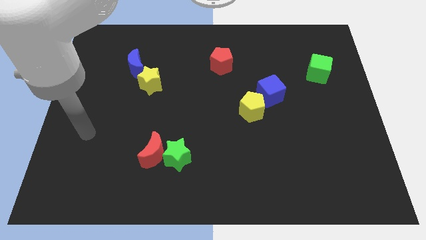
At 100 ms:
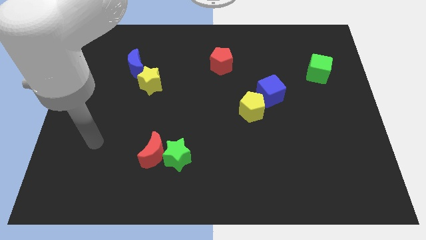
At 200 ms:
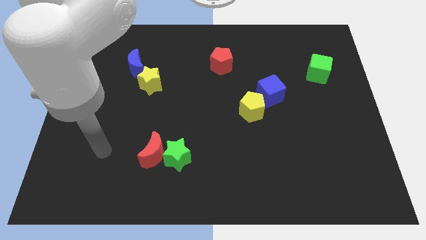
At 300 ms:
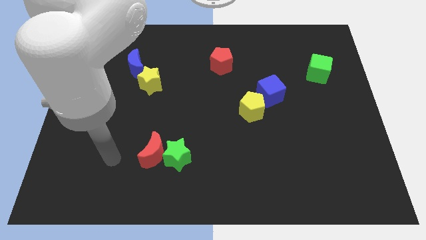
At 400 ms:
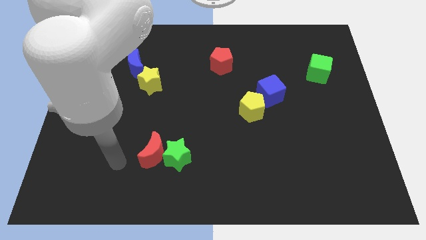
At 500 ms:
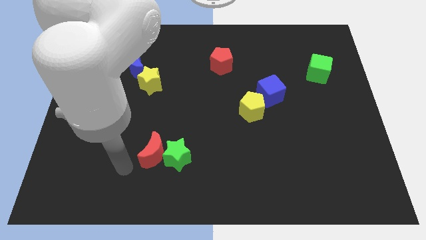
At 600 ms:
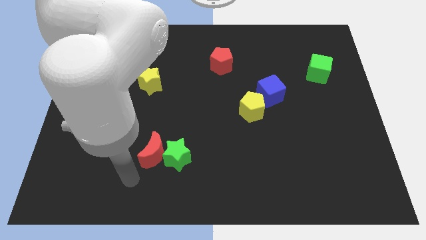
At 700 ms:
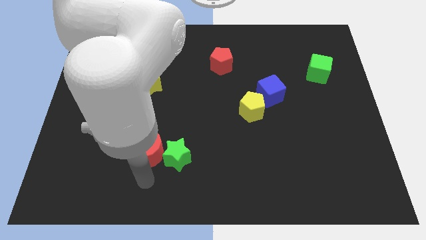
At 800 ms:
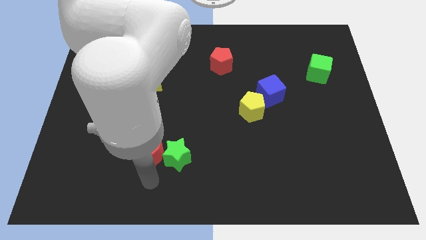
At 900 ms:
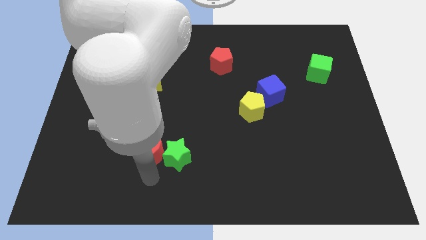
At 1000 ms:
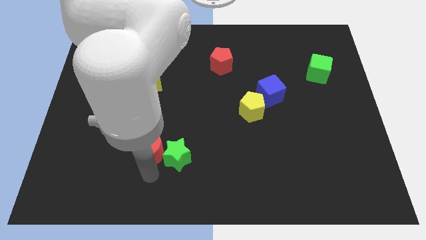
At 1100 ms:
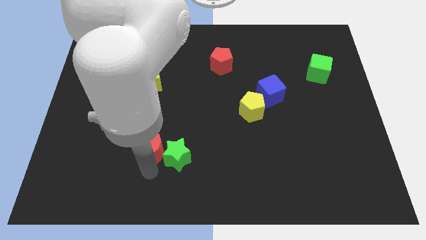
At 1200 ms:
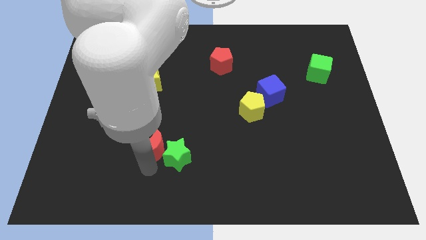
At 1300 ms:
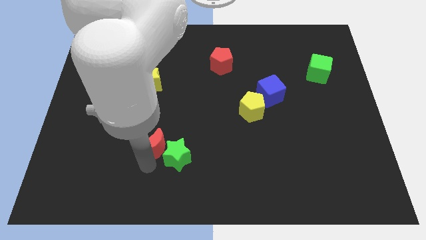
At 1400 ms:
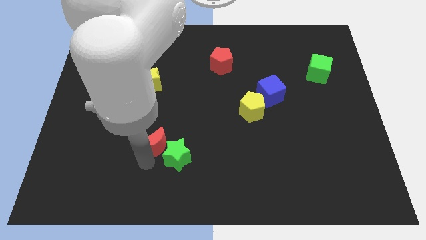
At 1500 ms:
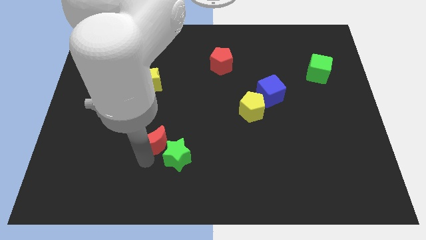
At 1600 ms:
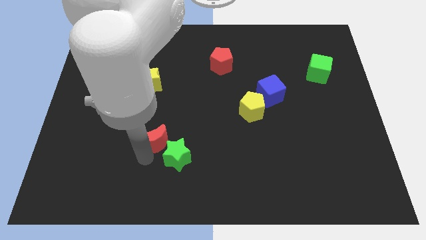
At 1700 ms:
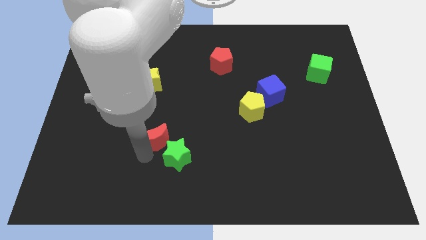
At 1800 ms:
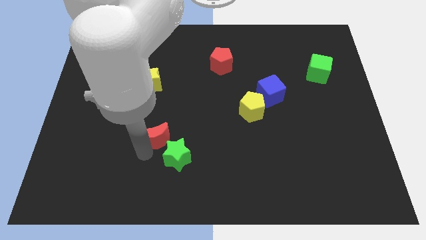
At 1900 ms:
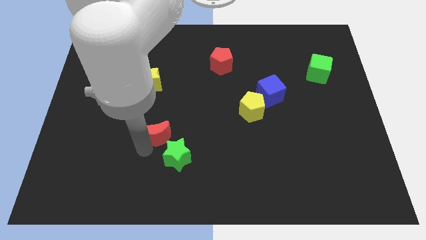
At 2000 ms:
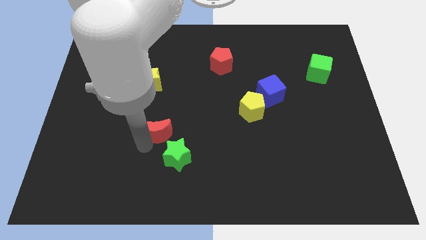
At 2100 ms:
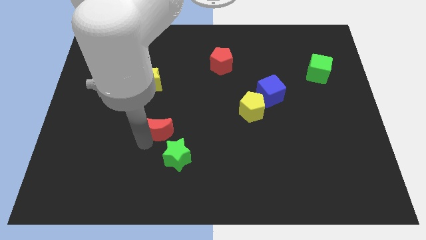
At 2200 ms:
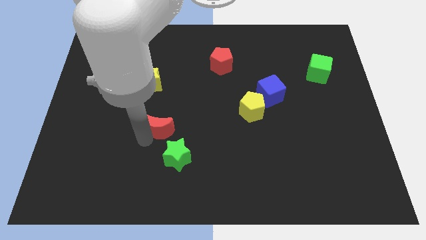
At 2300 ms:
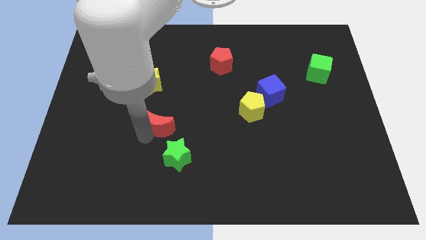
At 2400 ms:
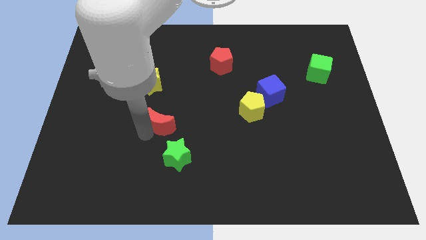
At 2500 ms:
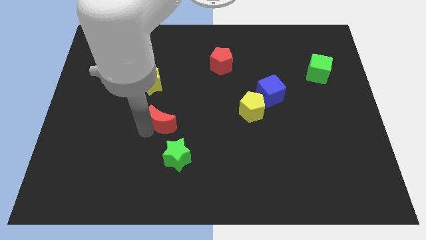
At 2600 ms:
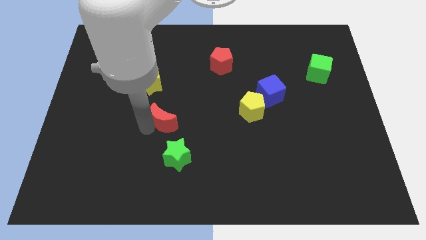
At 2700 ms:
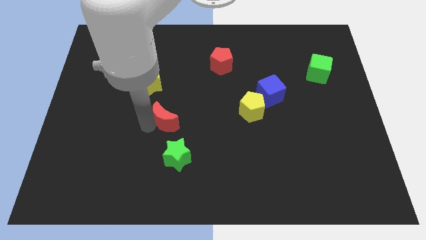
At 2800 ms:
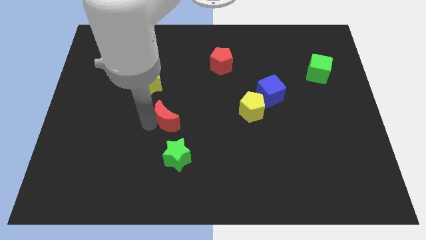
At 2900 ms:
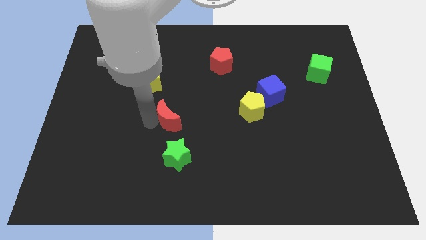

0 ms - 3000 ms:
move the red moon somewhat up and to the right diagonally

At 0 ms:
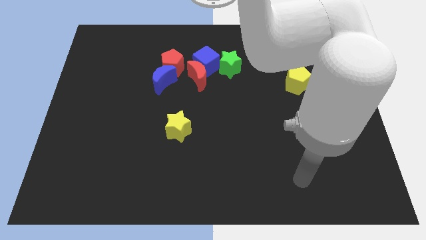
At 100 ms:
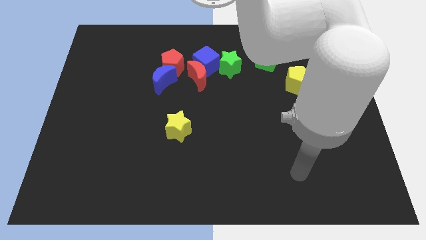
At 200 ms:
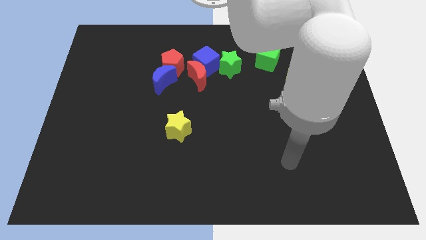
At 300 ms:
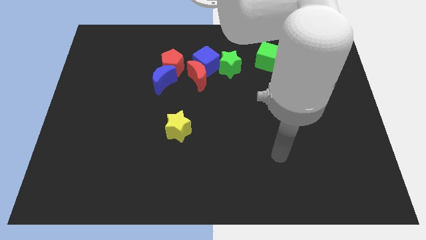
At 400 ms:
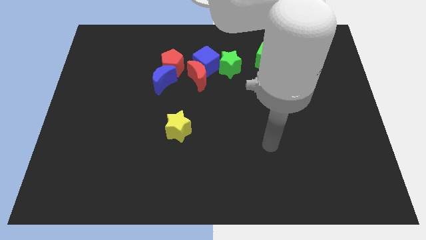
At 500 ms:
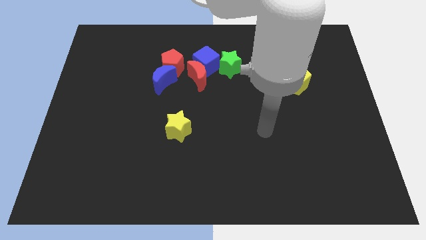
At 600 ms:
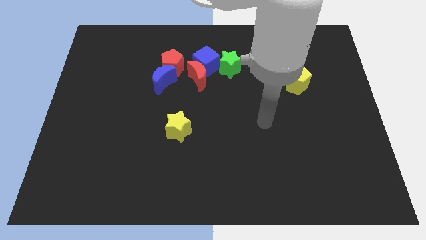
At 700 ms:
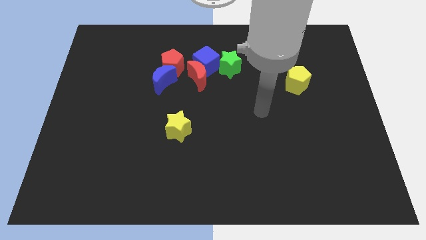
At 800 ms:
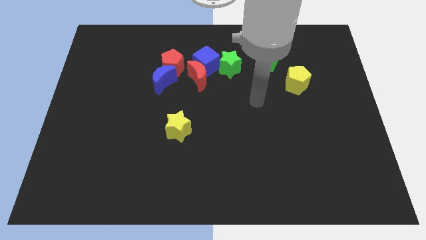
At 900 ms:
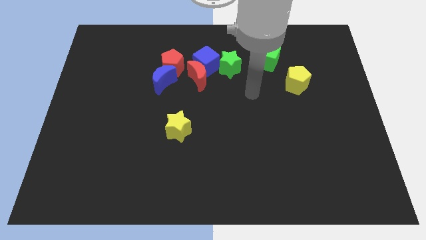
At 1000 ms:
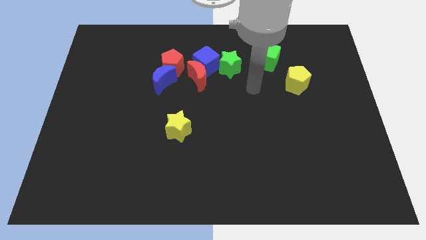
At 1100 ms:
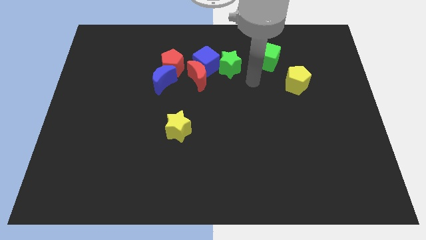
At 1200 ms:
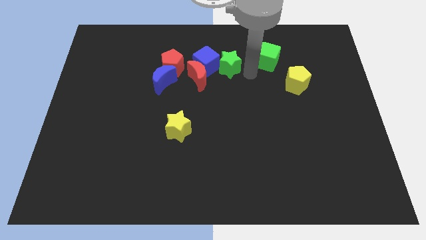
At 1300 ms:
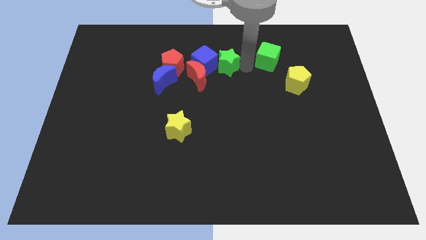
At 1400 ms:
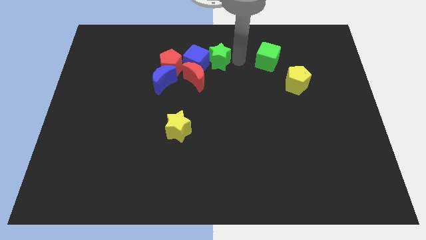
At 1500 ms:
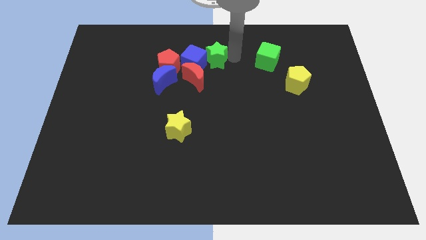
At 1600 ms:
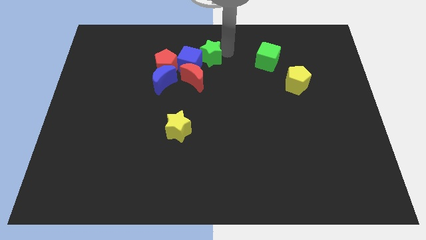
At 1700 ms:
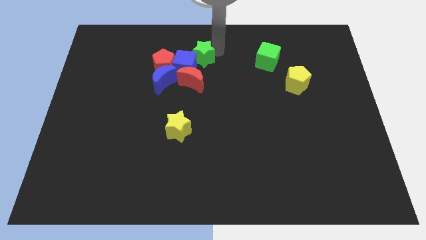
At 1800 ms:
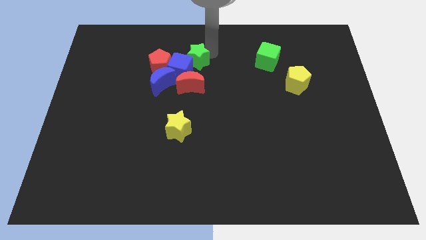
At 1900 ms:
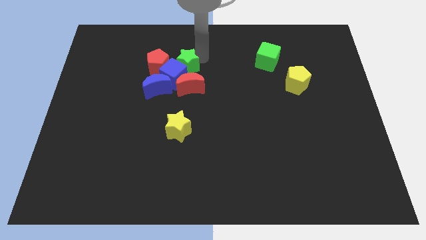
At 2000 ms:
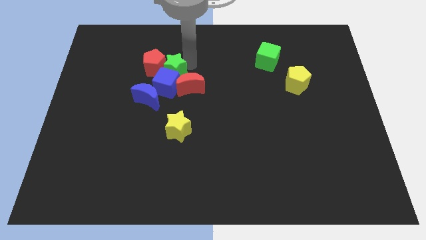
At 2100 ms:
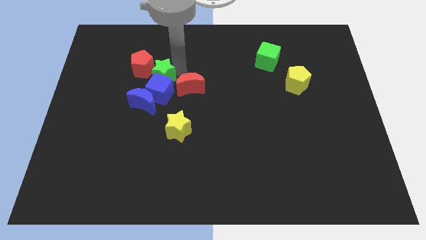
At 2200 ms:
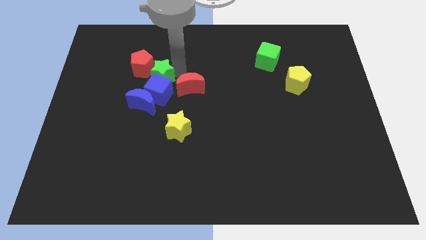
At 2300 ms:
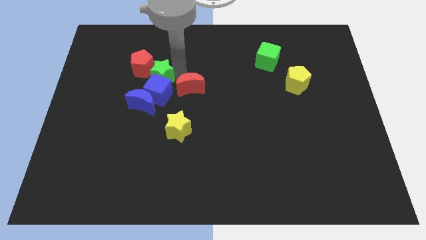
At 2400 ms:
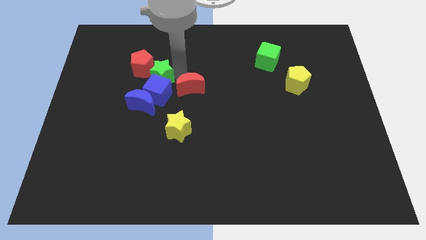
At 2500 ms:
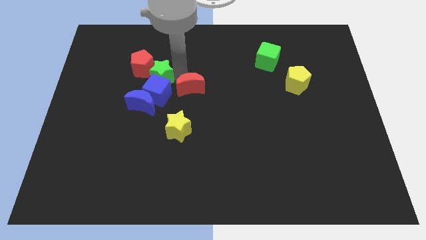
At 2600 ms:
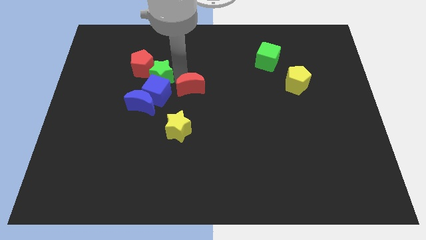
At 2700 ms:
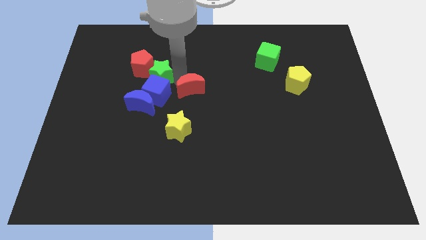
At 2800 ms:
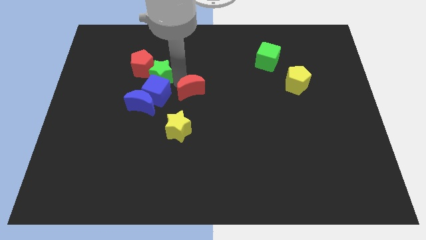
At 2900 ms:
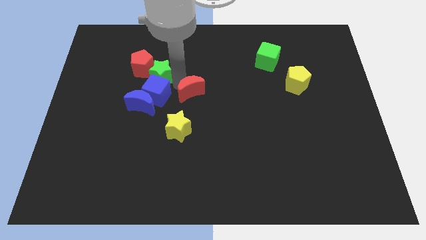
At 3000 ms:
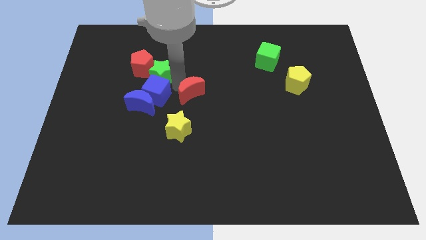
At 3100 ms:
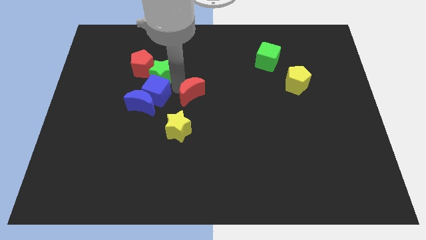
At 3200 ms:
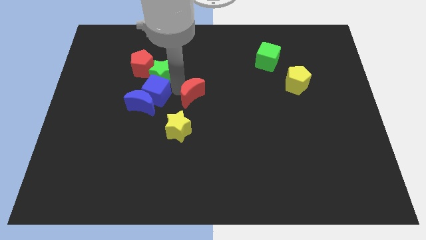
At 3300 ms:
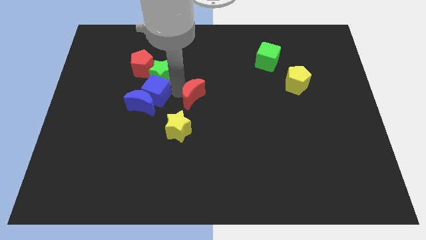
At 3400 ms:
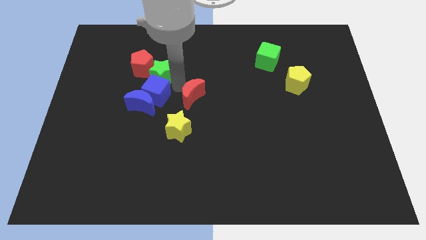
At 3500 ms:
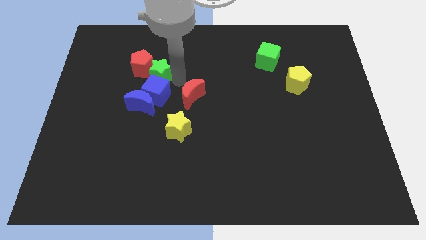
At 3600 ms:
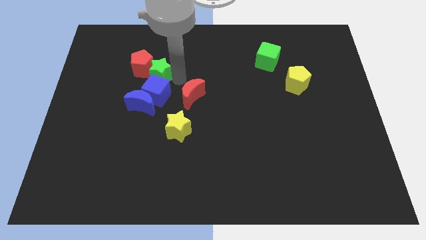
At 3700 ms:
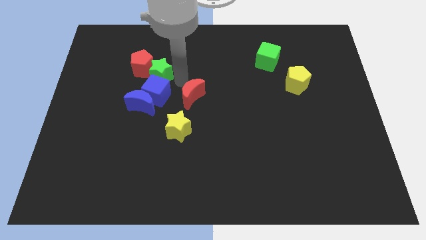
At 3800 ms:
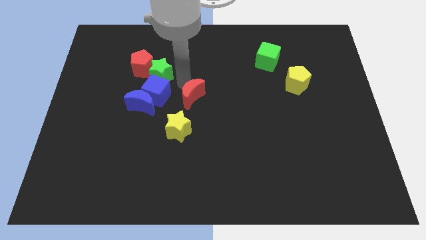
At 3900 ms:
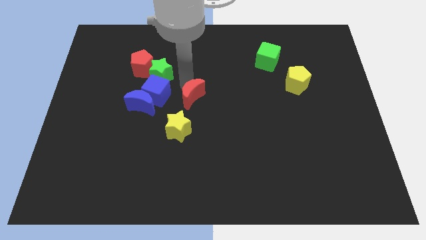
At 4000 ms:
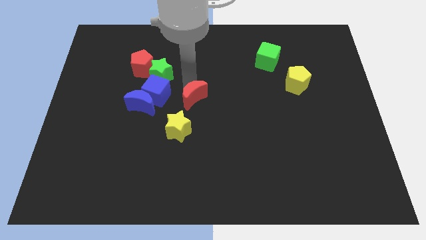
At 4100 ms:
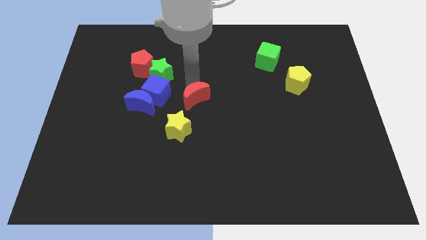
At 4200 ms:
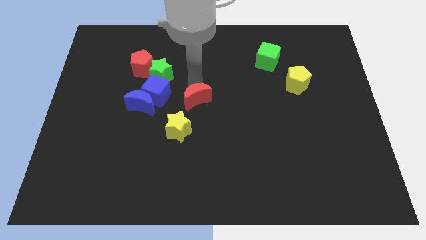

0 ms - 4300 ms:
push the red moon downwards a bit

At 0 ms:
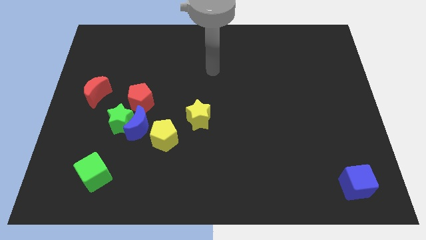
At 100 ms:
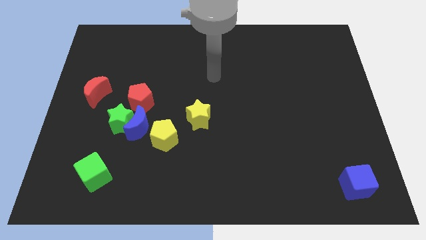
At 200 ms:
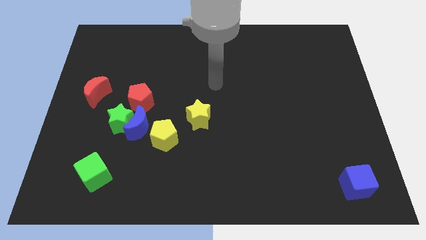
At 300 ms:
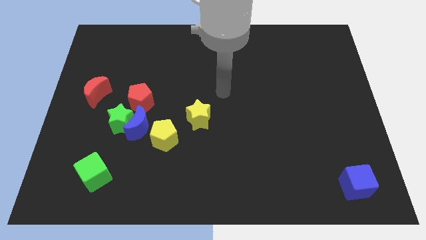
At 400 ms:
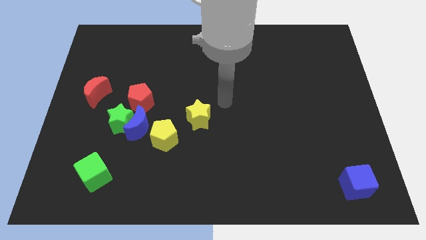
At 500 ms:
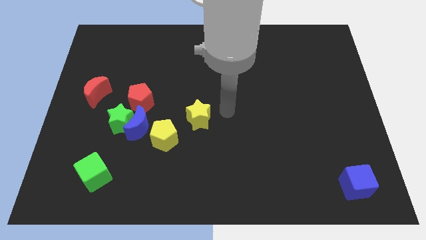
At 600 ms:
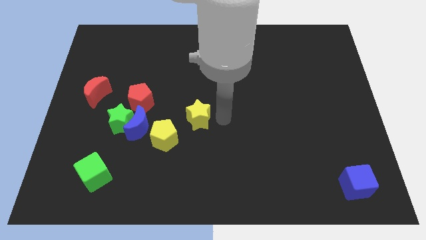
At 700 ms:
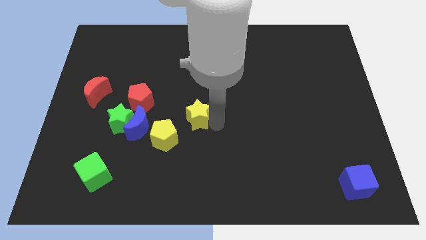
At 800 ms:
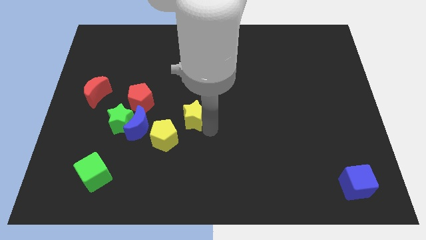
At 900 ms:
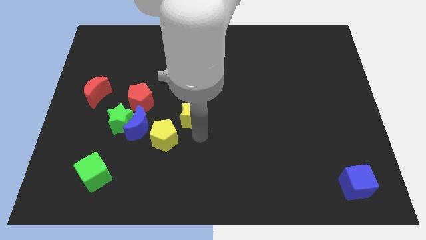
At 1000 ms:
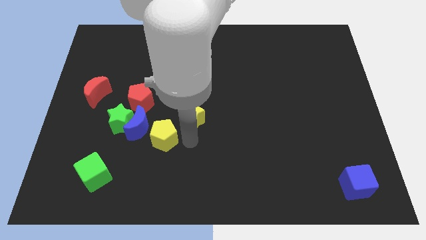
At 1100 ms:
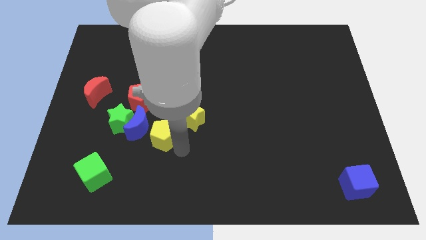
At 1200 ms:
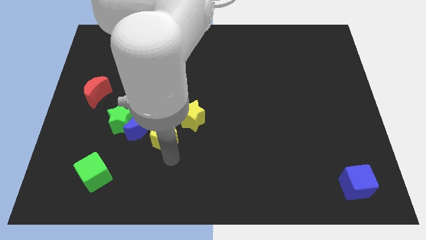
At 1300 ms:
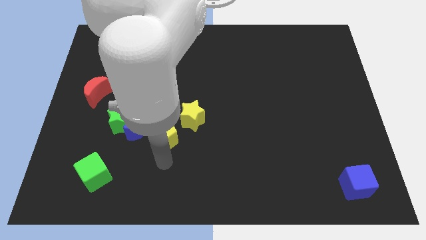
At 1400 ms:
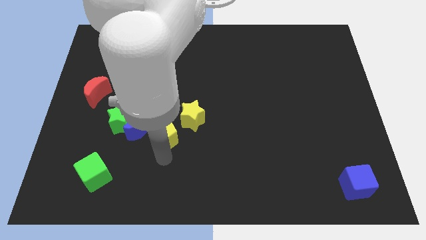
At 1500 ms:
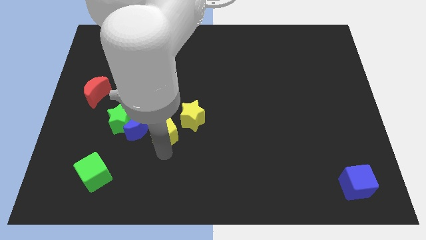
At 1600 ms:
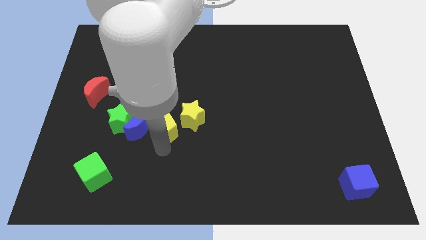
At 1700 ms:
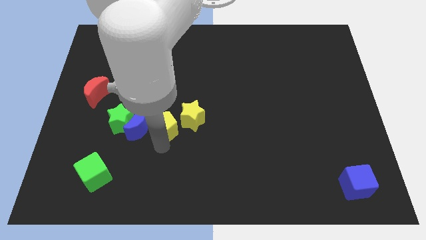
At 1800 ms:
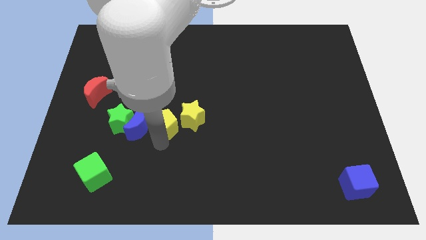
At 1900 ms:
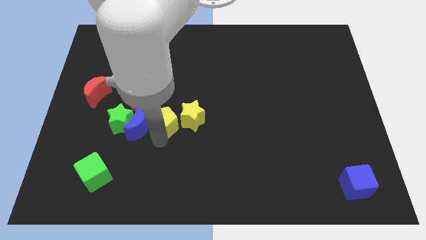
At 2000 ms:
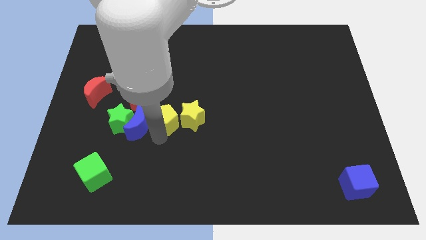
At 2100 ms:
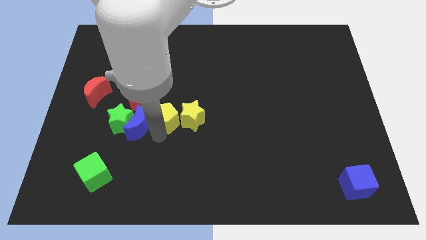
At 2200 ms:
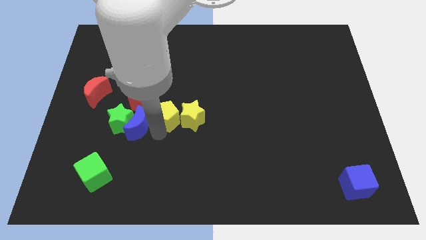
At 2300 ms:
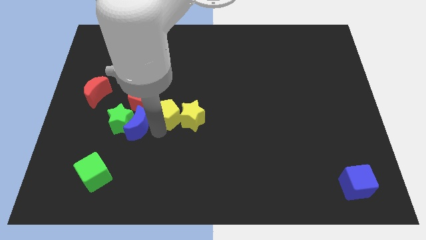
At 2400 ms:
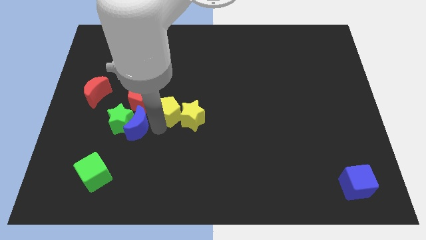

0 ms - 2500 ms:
slide the yellow pentagon upwards somewhat
